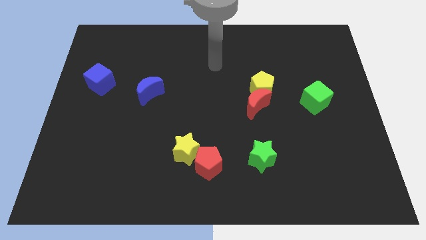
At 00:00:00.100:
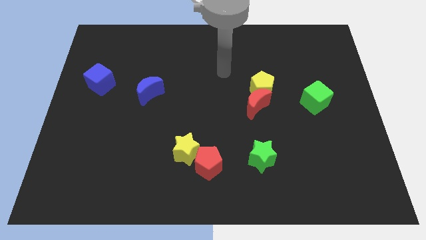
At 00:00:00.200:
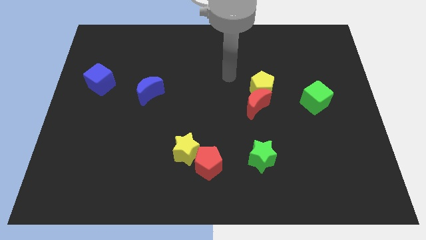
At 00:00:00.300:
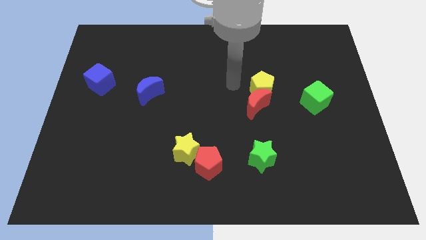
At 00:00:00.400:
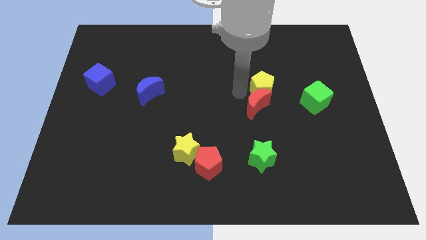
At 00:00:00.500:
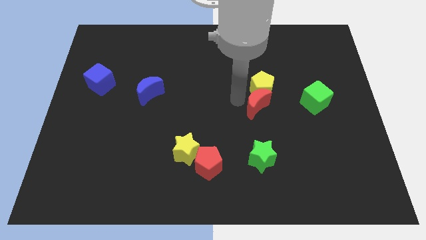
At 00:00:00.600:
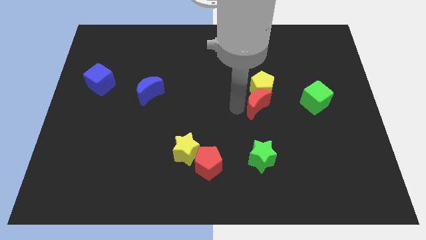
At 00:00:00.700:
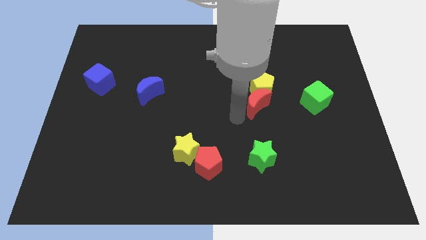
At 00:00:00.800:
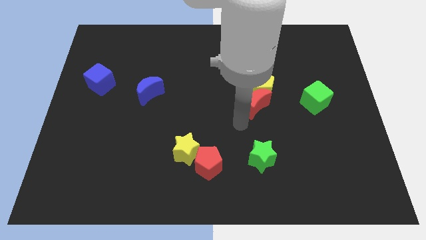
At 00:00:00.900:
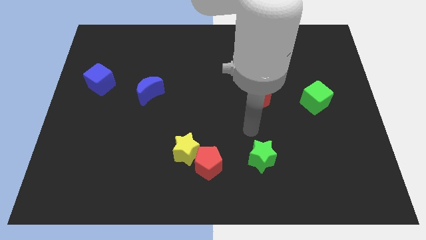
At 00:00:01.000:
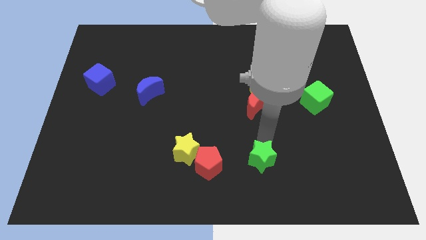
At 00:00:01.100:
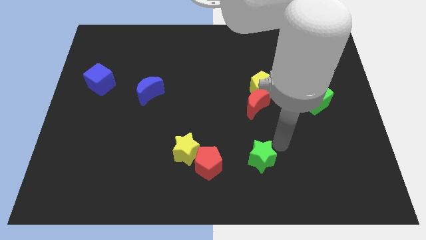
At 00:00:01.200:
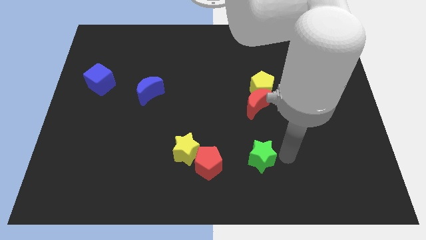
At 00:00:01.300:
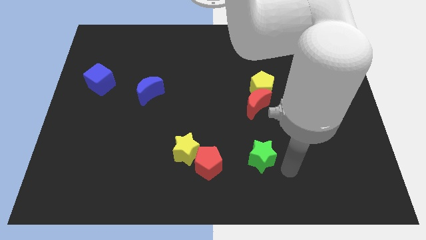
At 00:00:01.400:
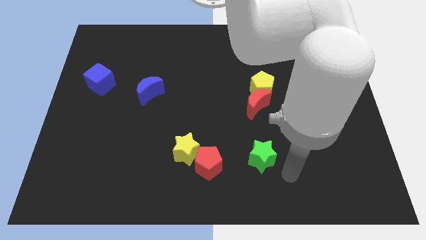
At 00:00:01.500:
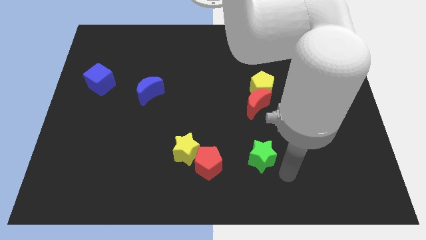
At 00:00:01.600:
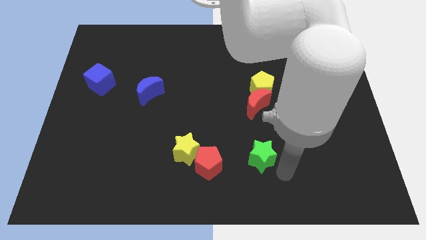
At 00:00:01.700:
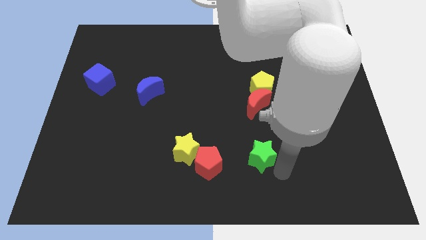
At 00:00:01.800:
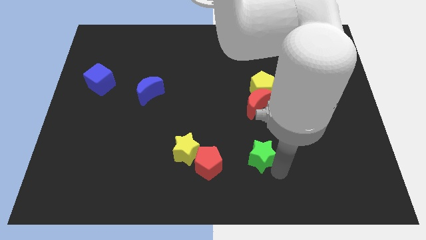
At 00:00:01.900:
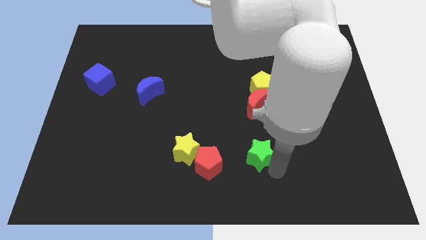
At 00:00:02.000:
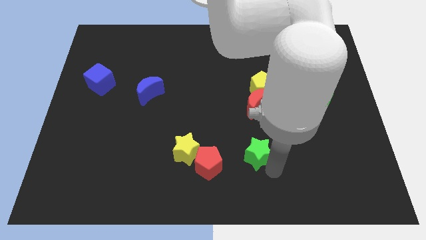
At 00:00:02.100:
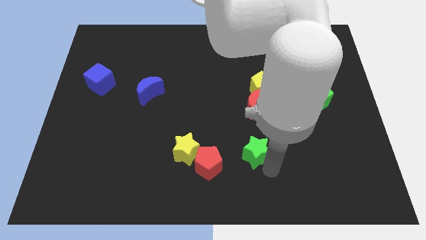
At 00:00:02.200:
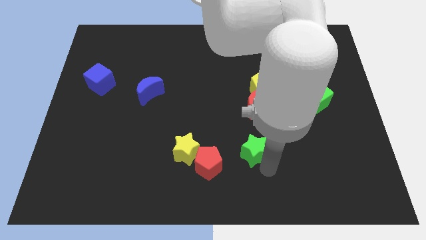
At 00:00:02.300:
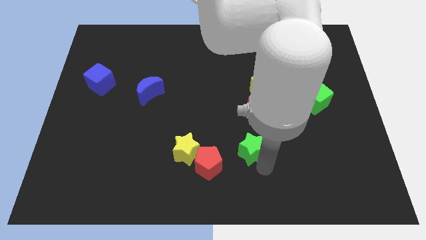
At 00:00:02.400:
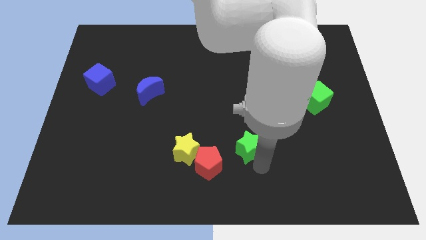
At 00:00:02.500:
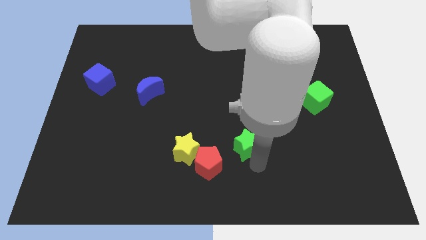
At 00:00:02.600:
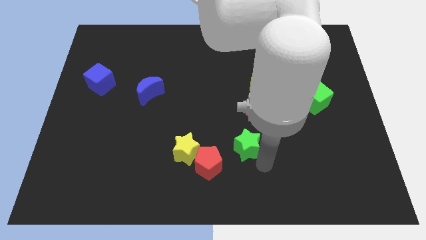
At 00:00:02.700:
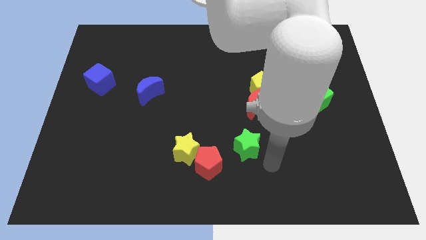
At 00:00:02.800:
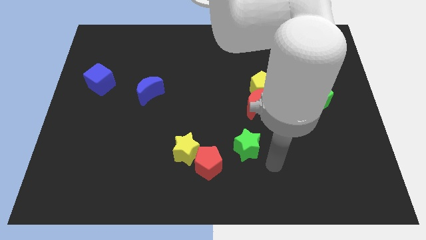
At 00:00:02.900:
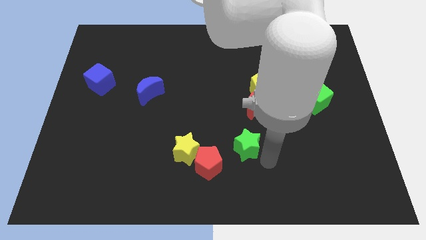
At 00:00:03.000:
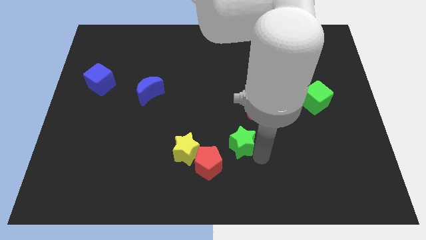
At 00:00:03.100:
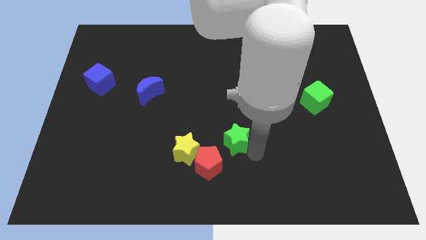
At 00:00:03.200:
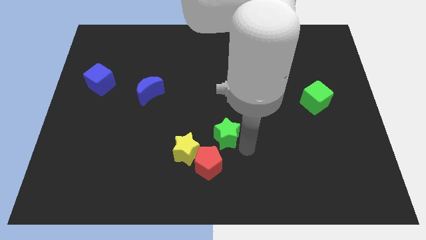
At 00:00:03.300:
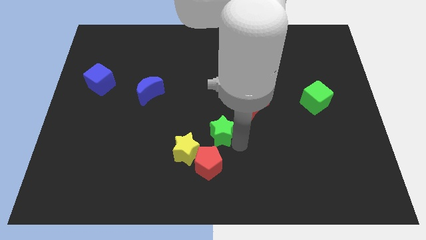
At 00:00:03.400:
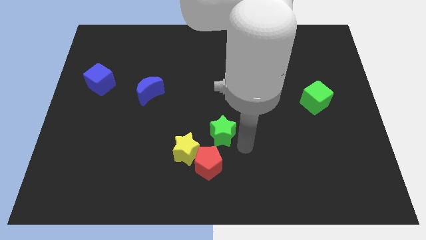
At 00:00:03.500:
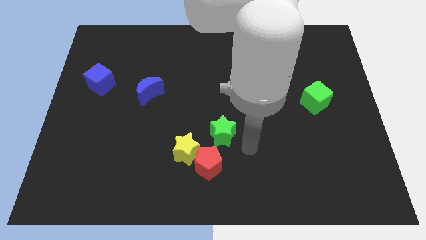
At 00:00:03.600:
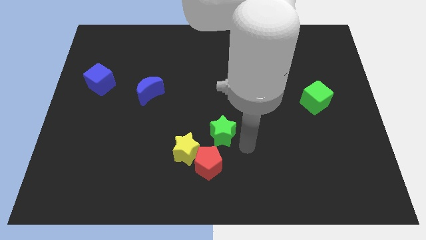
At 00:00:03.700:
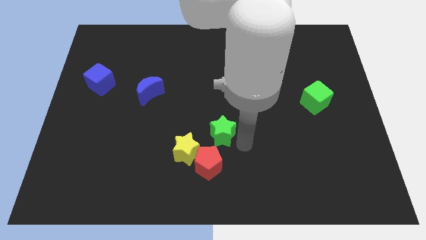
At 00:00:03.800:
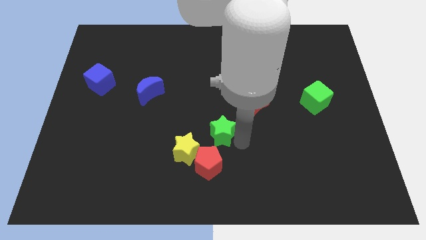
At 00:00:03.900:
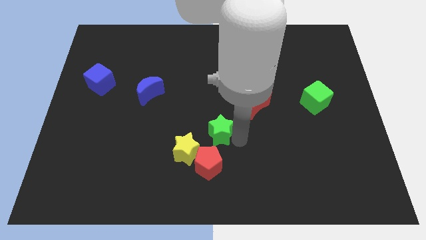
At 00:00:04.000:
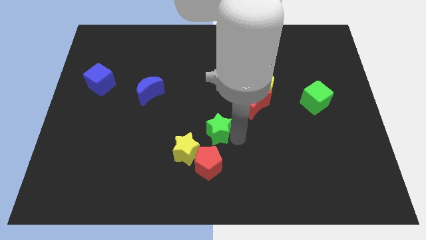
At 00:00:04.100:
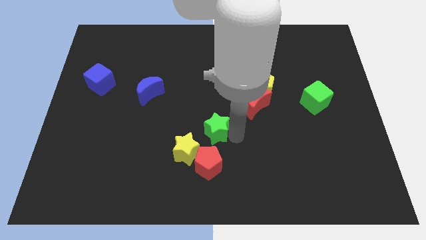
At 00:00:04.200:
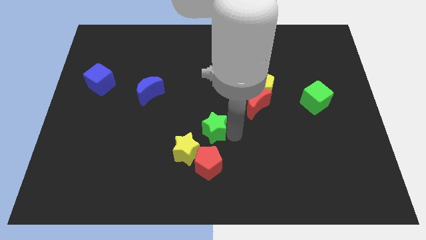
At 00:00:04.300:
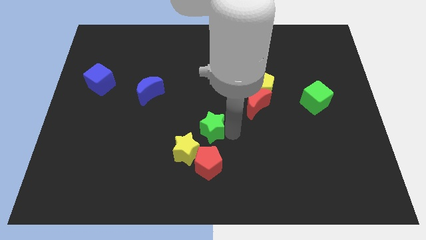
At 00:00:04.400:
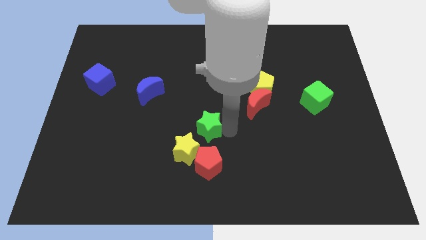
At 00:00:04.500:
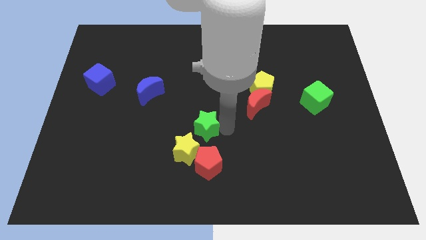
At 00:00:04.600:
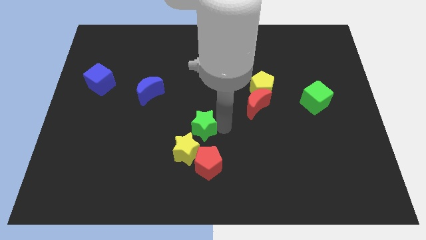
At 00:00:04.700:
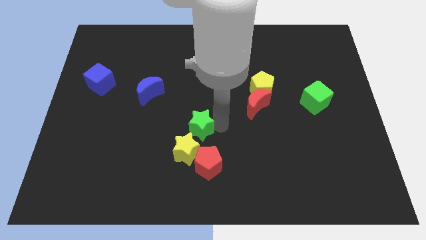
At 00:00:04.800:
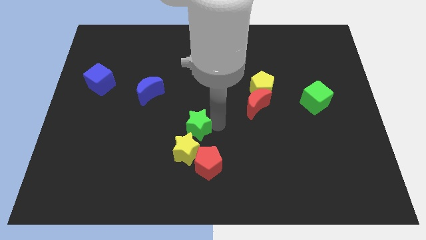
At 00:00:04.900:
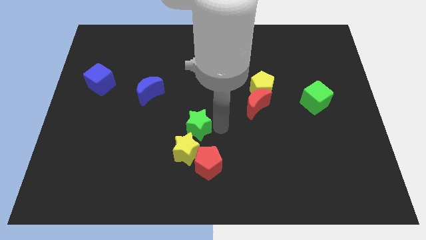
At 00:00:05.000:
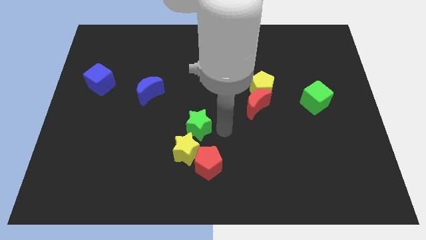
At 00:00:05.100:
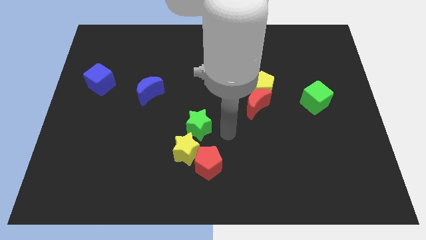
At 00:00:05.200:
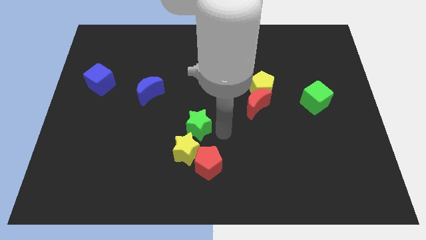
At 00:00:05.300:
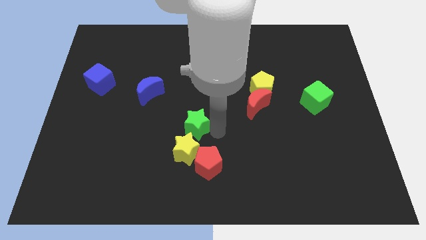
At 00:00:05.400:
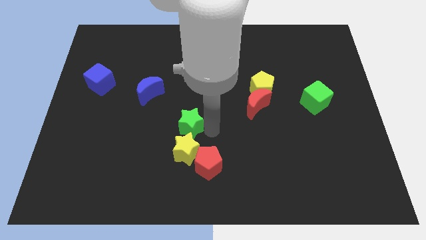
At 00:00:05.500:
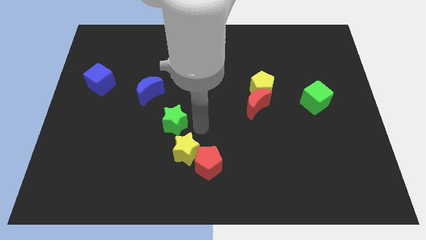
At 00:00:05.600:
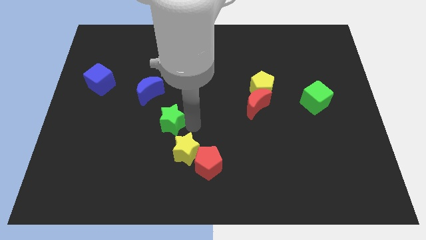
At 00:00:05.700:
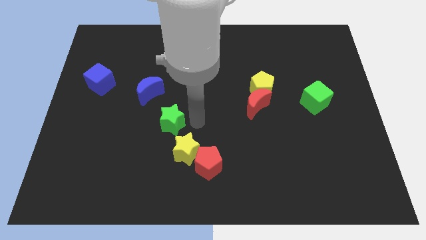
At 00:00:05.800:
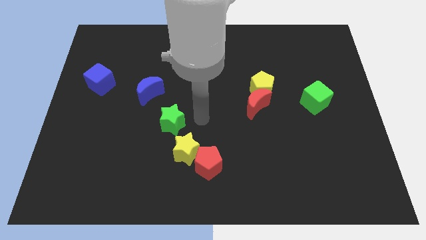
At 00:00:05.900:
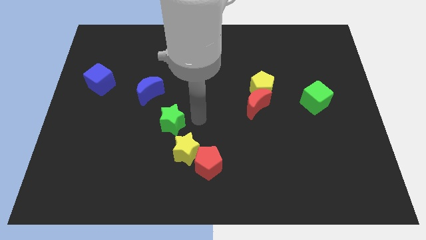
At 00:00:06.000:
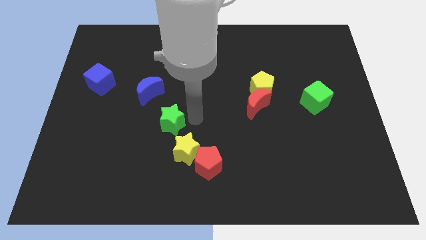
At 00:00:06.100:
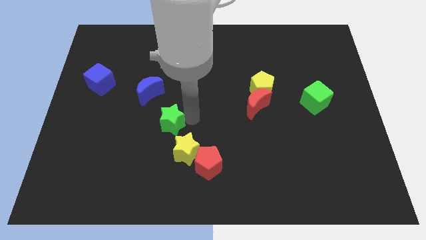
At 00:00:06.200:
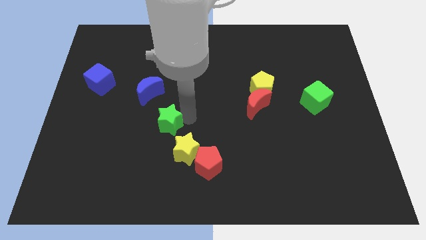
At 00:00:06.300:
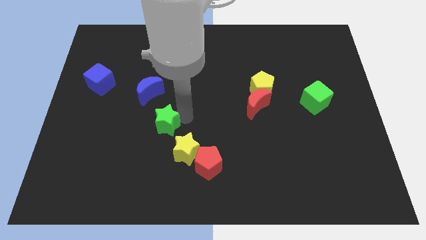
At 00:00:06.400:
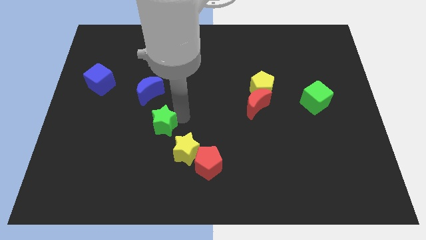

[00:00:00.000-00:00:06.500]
push the green star to the bottom side of the blue moon
